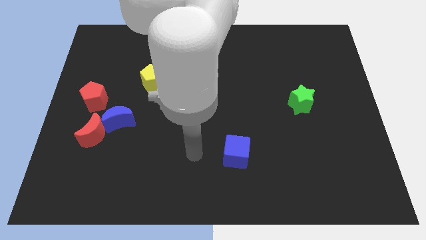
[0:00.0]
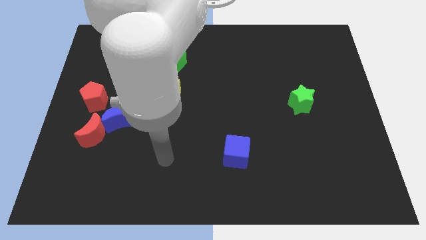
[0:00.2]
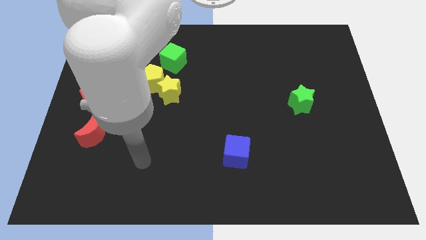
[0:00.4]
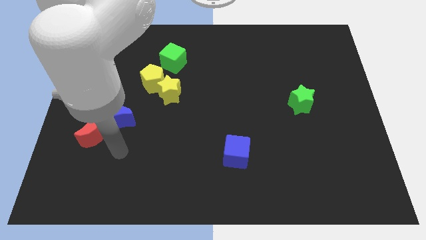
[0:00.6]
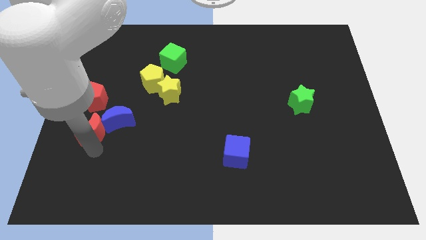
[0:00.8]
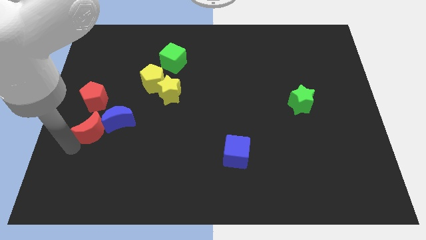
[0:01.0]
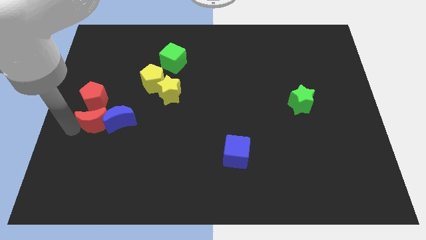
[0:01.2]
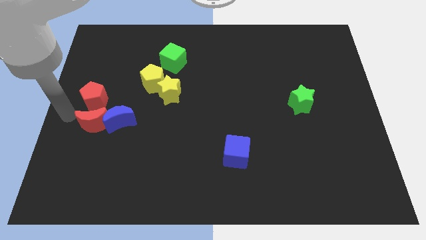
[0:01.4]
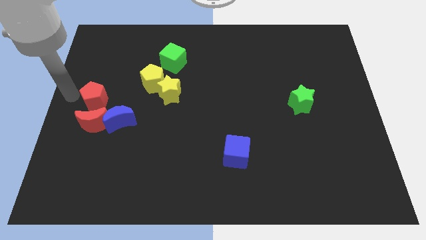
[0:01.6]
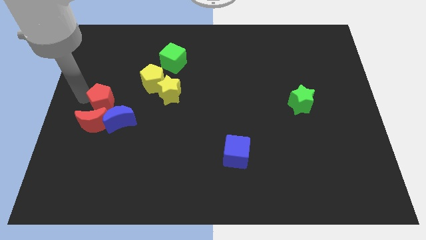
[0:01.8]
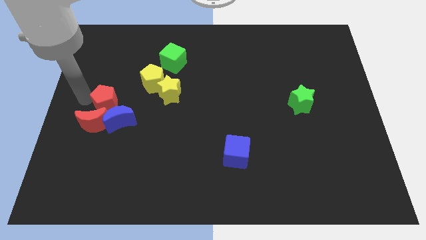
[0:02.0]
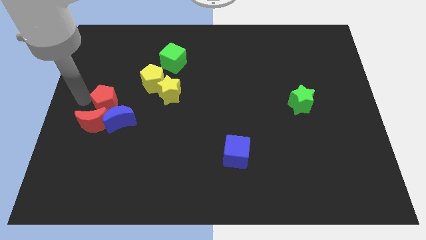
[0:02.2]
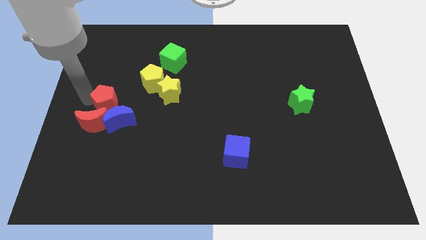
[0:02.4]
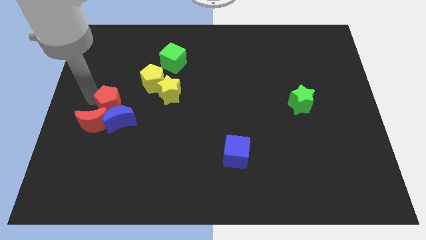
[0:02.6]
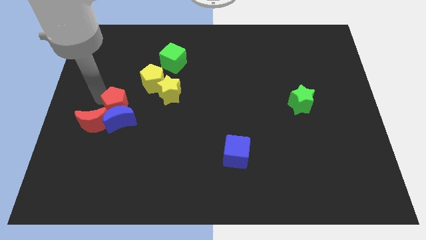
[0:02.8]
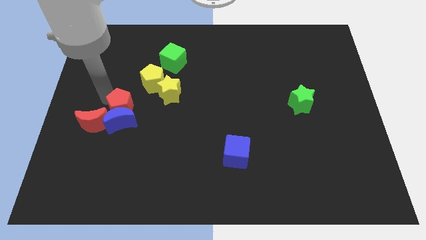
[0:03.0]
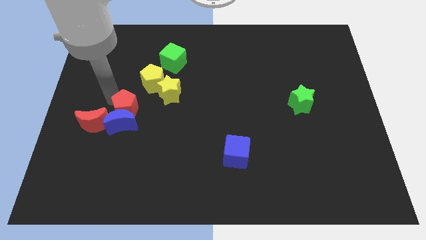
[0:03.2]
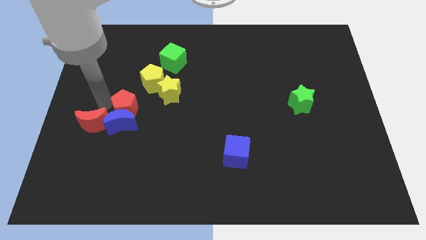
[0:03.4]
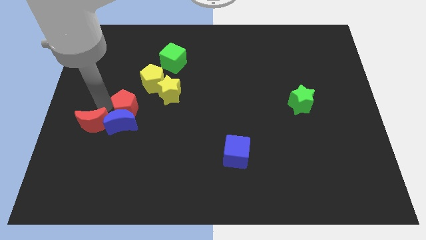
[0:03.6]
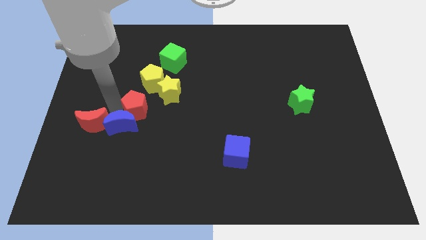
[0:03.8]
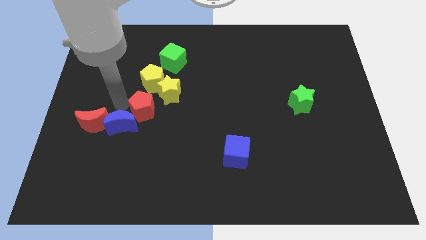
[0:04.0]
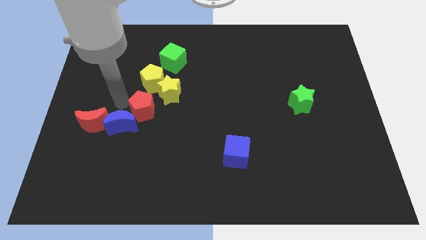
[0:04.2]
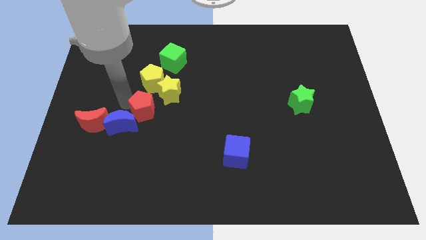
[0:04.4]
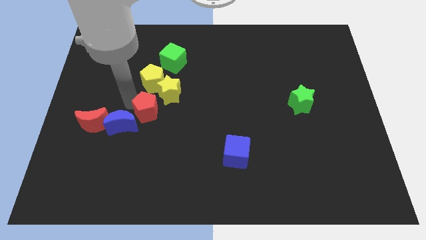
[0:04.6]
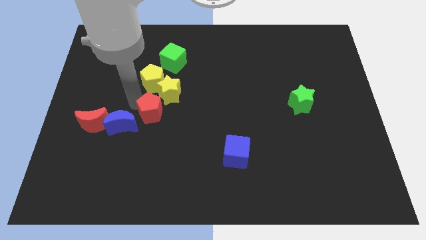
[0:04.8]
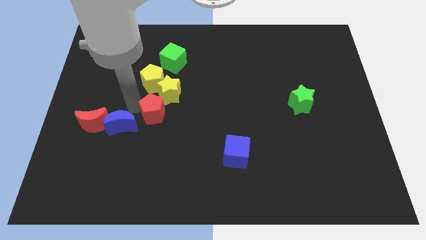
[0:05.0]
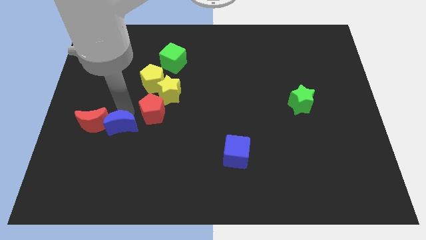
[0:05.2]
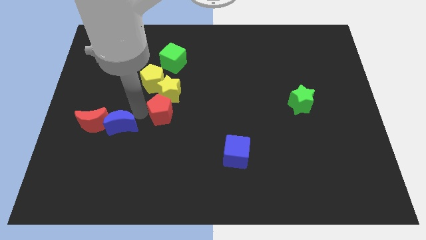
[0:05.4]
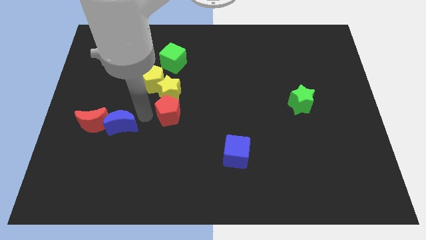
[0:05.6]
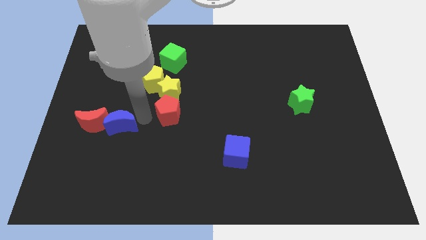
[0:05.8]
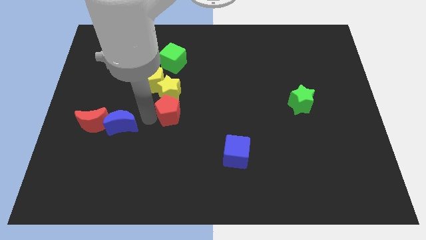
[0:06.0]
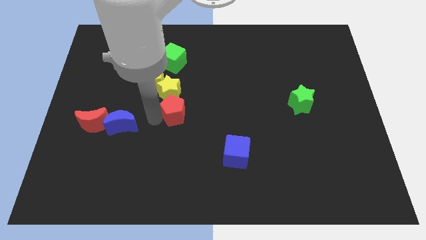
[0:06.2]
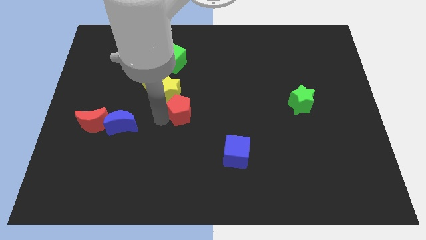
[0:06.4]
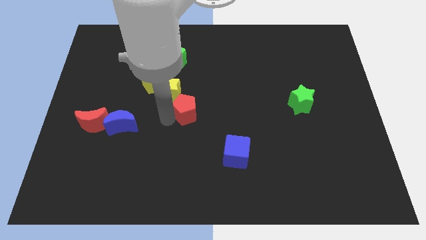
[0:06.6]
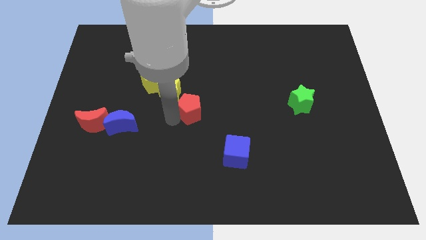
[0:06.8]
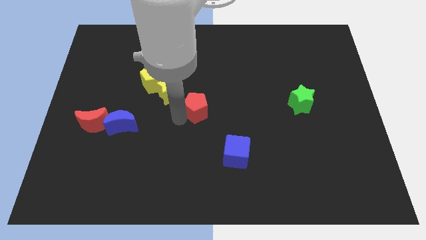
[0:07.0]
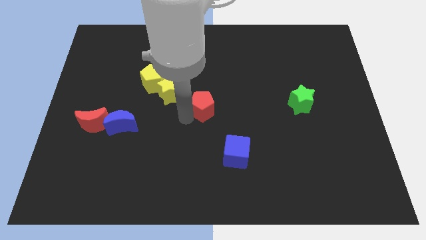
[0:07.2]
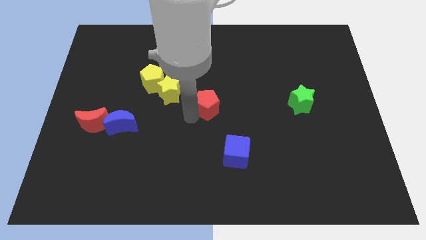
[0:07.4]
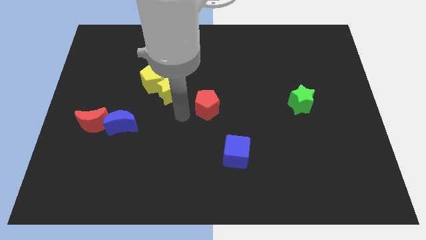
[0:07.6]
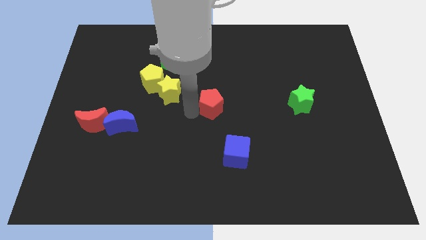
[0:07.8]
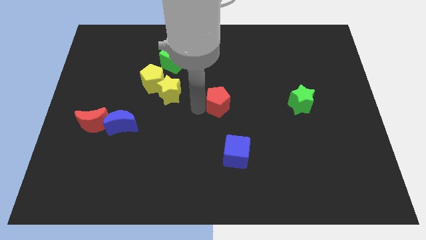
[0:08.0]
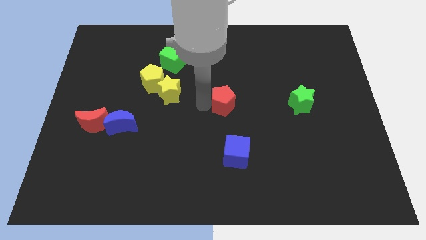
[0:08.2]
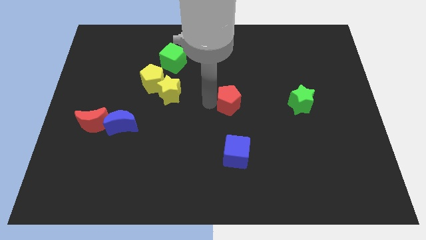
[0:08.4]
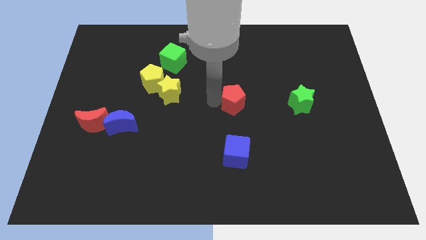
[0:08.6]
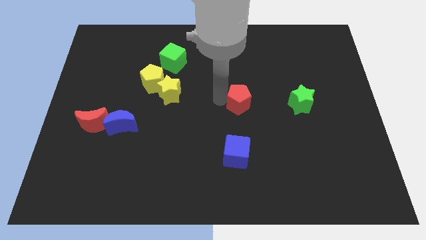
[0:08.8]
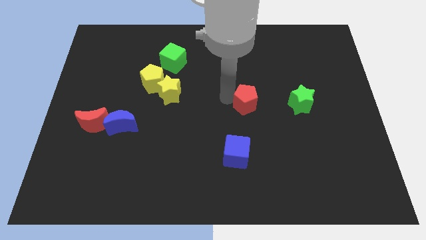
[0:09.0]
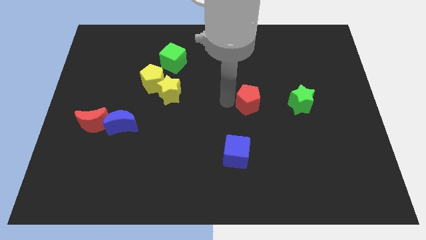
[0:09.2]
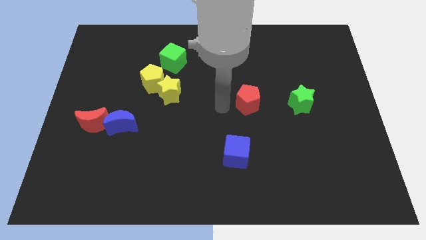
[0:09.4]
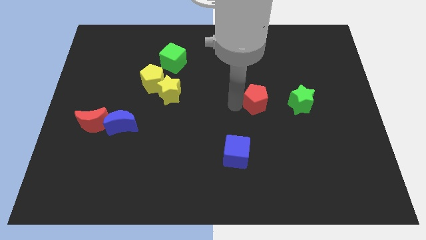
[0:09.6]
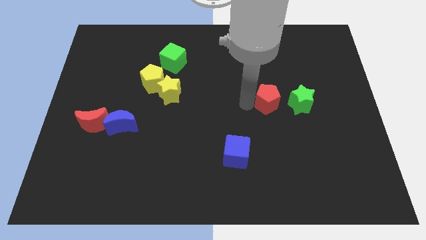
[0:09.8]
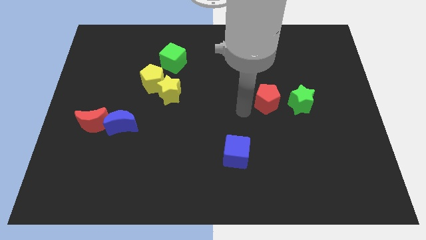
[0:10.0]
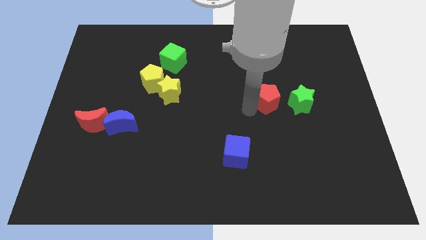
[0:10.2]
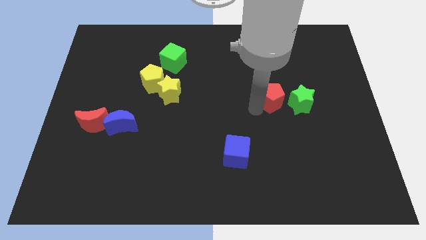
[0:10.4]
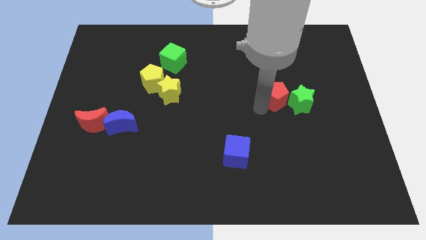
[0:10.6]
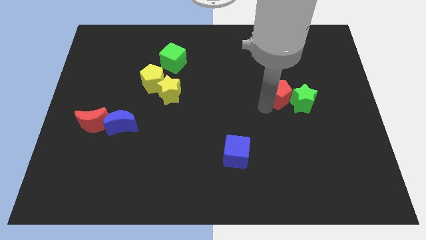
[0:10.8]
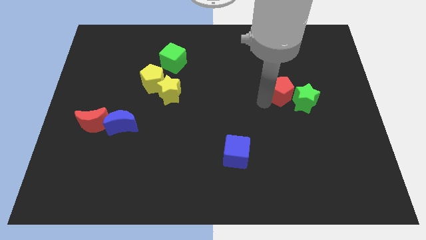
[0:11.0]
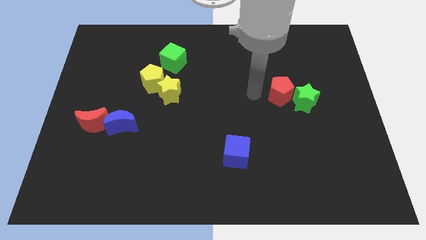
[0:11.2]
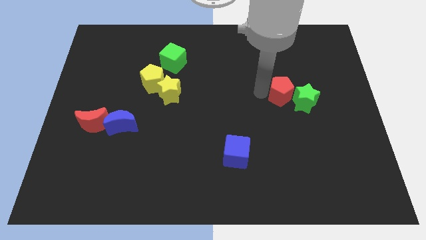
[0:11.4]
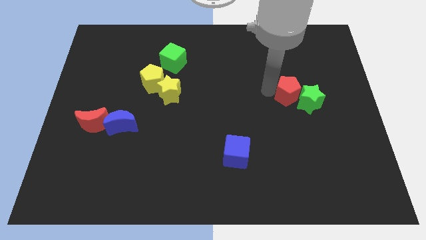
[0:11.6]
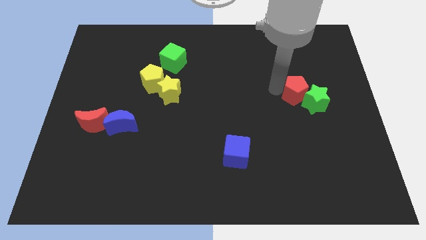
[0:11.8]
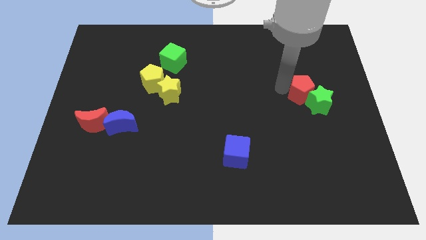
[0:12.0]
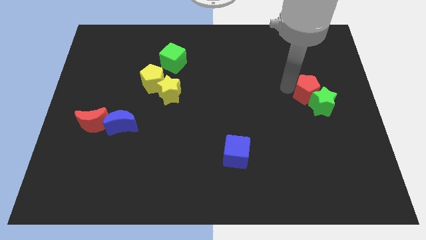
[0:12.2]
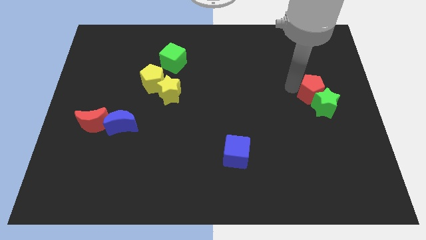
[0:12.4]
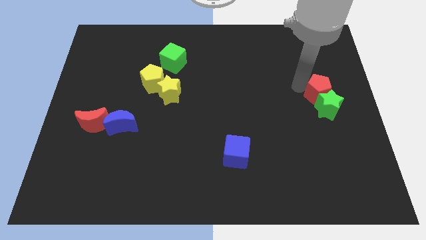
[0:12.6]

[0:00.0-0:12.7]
slide the red pentagon to the right side of the board

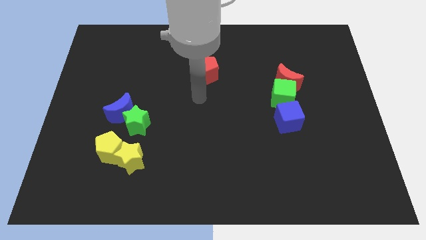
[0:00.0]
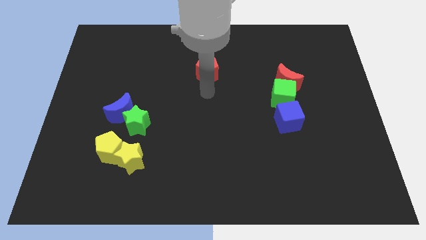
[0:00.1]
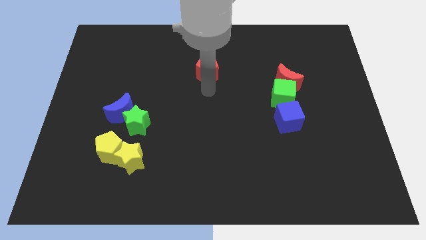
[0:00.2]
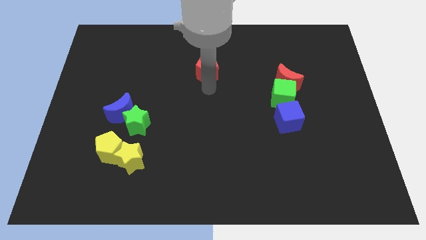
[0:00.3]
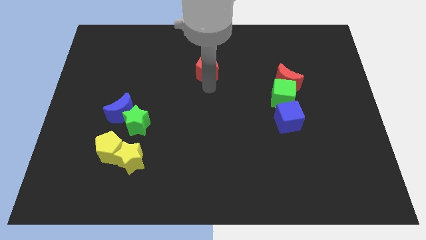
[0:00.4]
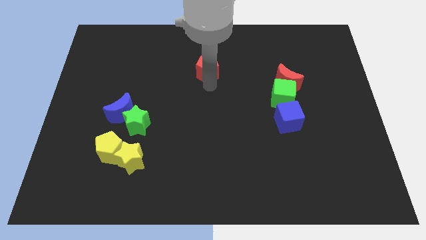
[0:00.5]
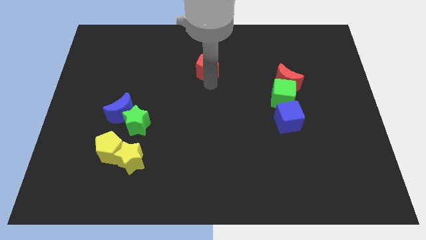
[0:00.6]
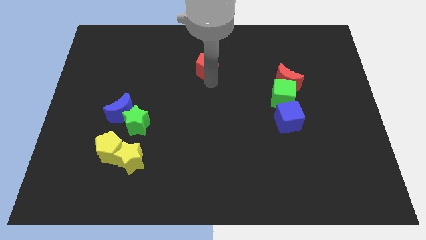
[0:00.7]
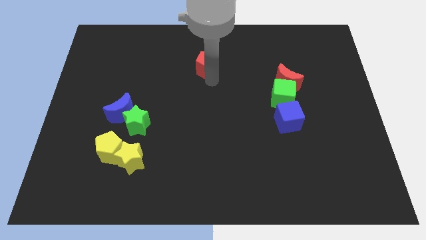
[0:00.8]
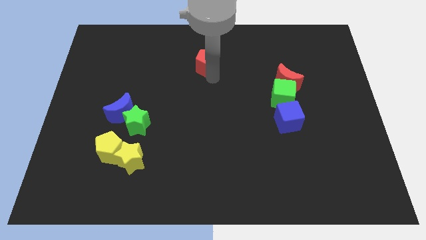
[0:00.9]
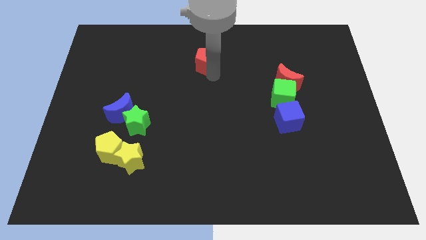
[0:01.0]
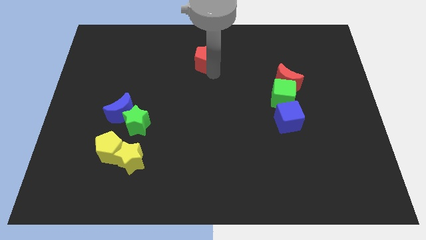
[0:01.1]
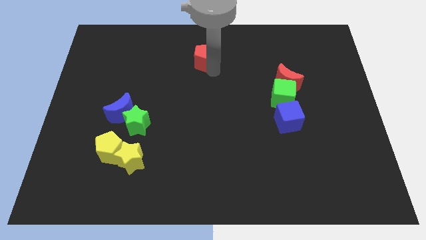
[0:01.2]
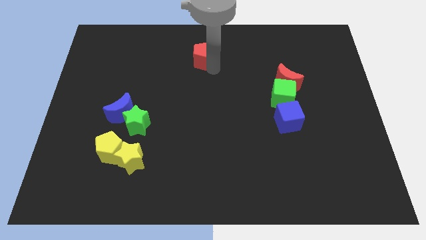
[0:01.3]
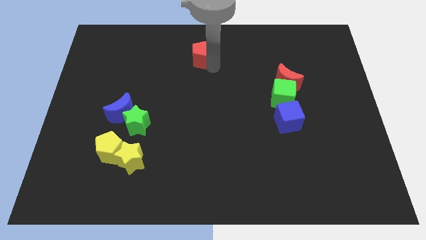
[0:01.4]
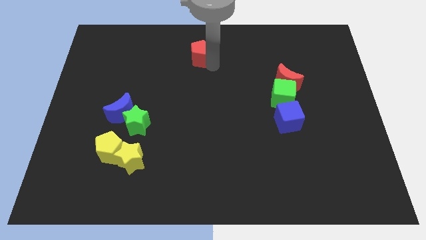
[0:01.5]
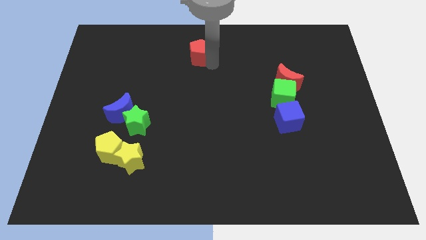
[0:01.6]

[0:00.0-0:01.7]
move the red pentagon to the towards your base
